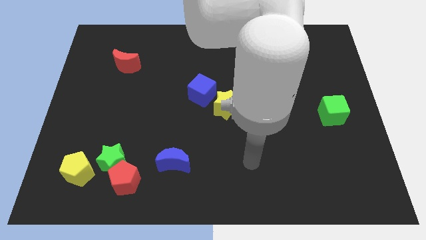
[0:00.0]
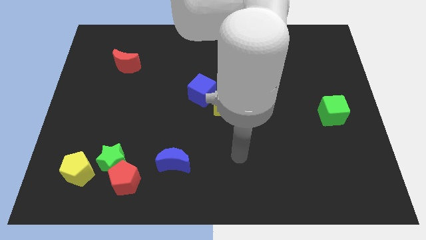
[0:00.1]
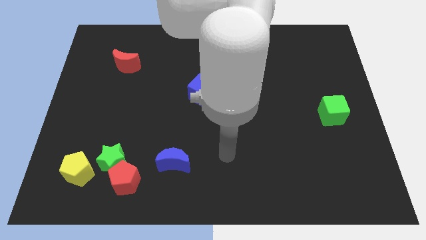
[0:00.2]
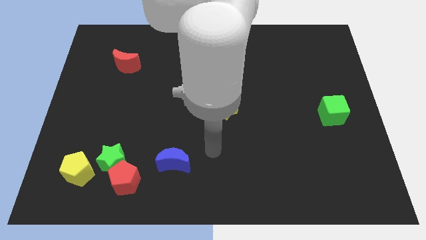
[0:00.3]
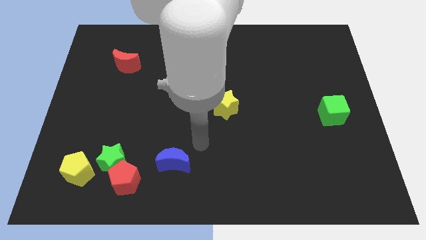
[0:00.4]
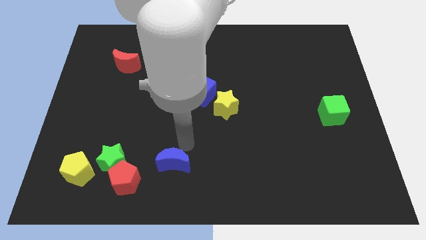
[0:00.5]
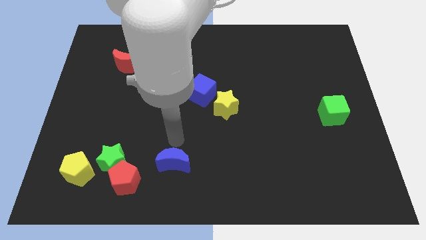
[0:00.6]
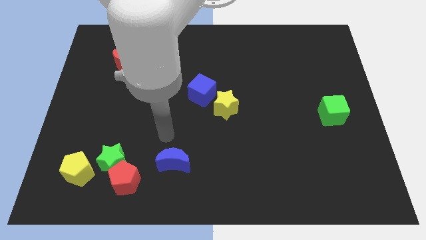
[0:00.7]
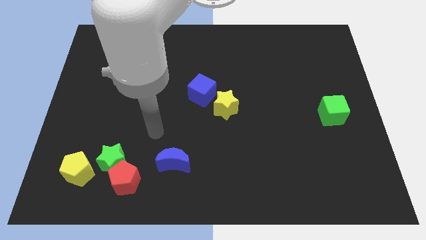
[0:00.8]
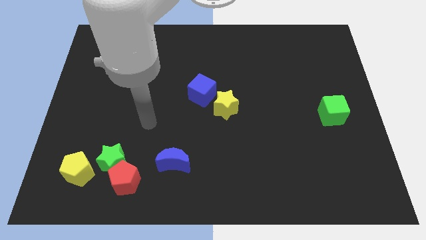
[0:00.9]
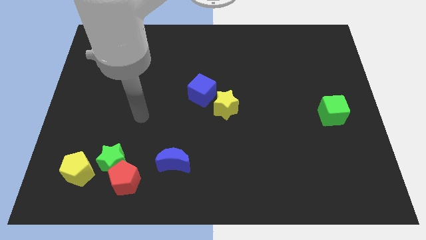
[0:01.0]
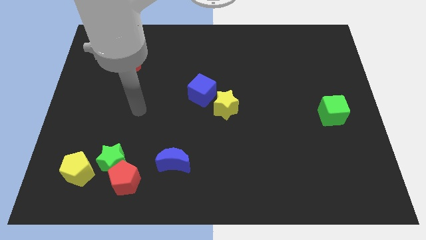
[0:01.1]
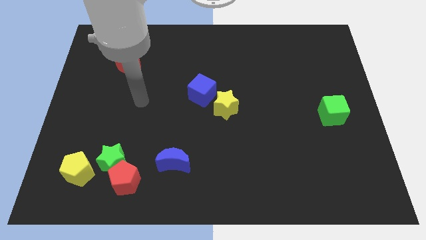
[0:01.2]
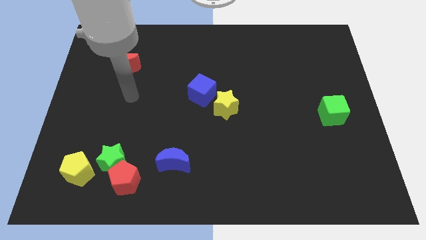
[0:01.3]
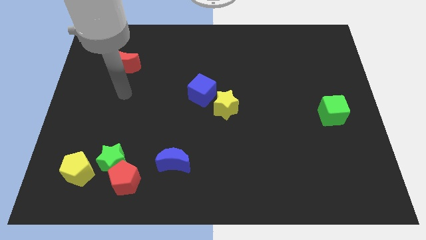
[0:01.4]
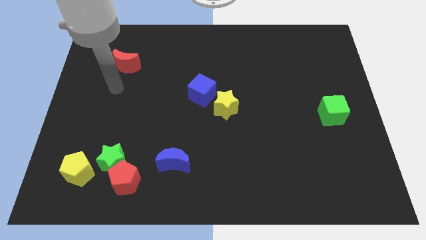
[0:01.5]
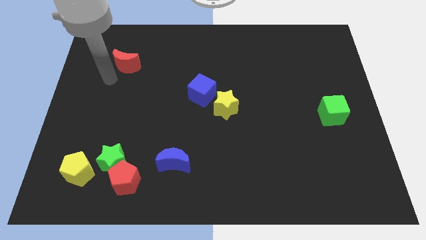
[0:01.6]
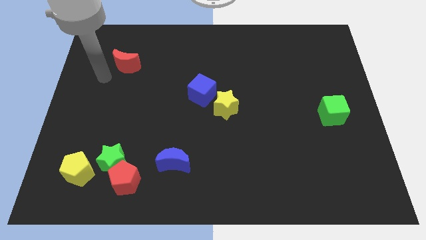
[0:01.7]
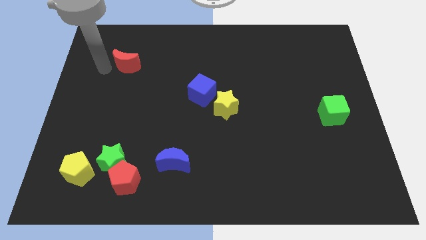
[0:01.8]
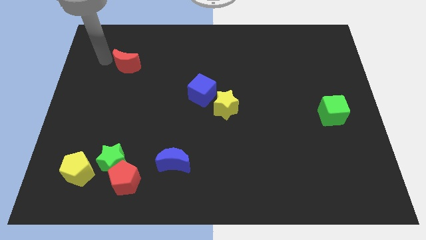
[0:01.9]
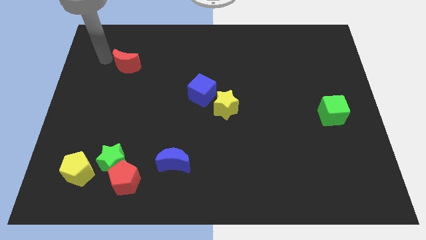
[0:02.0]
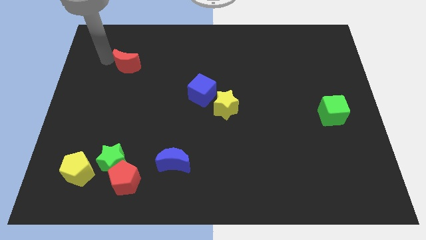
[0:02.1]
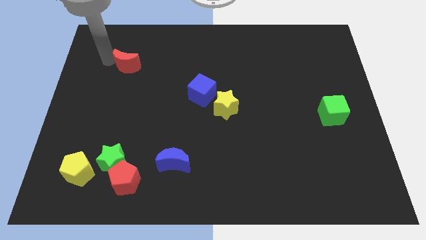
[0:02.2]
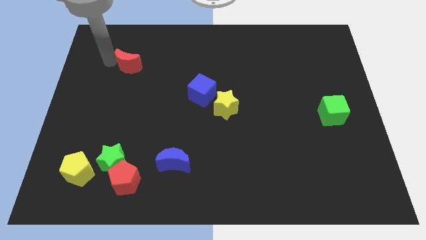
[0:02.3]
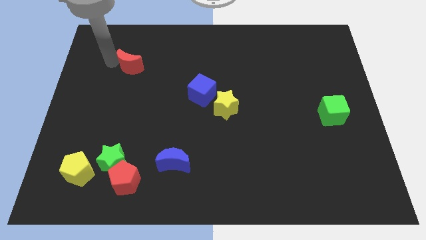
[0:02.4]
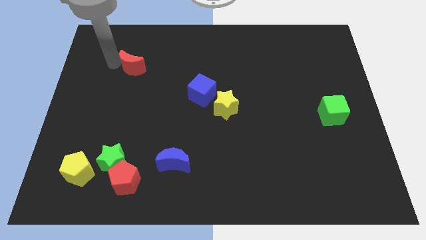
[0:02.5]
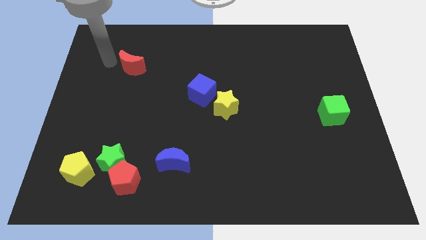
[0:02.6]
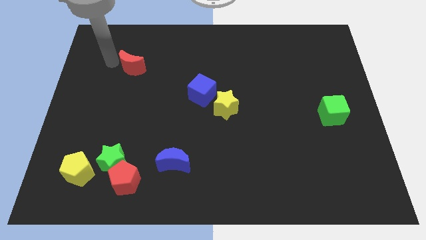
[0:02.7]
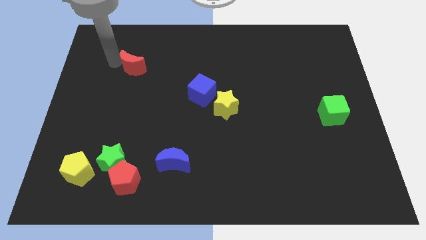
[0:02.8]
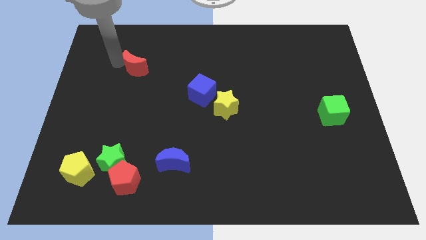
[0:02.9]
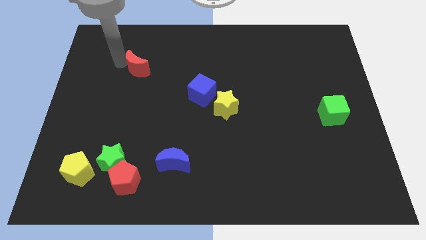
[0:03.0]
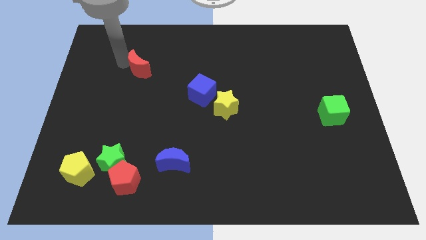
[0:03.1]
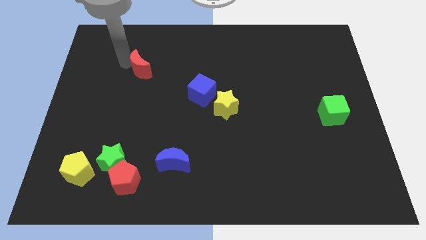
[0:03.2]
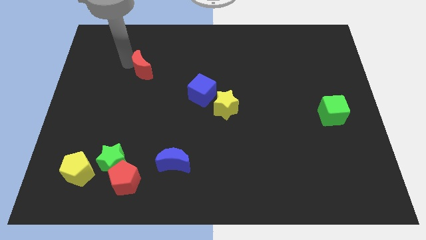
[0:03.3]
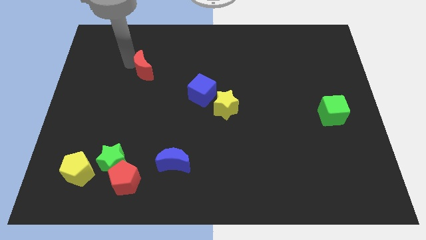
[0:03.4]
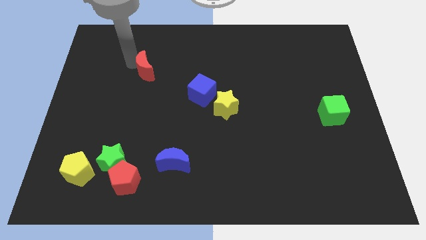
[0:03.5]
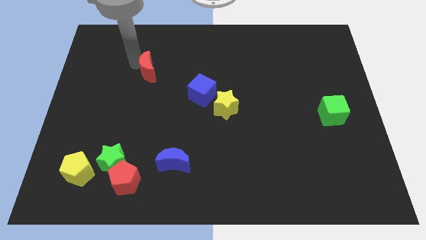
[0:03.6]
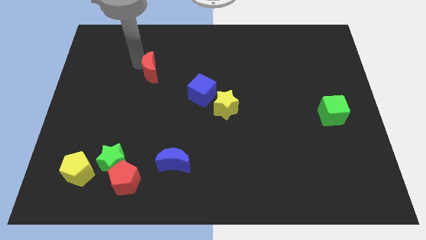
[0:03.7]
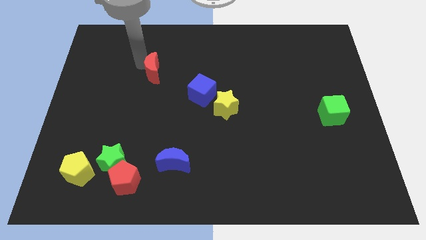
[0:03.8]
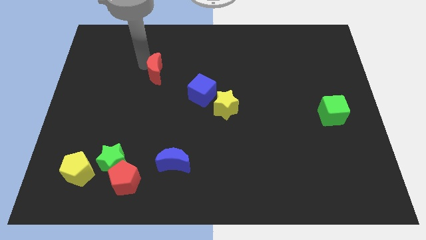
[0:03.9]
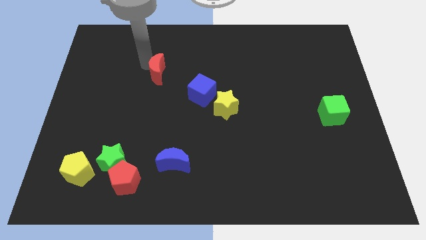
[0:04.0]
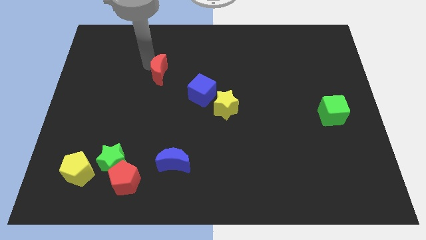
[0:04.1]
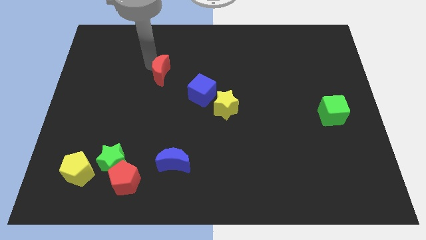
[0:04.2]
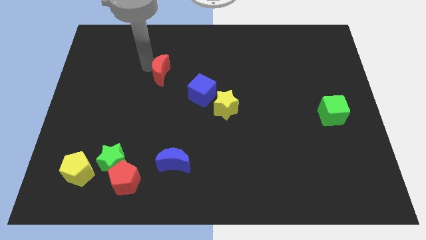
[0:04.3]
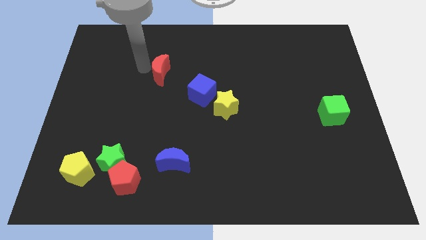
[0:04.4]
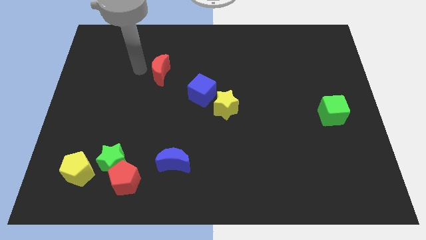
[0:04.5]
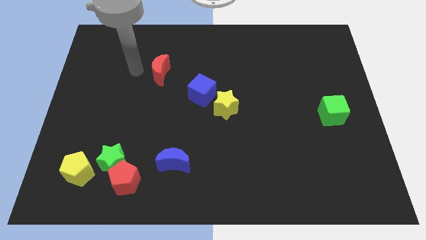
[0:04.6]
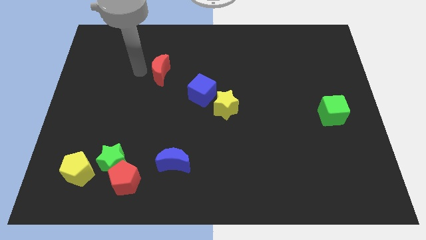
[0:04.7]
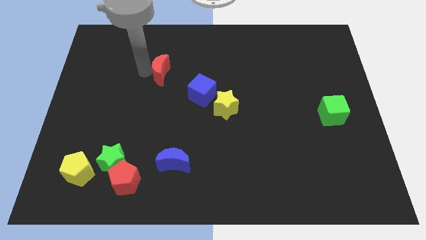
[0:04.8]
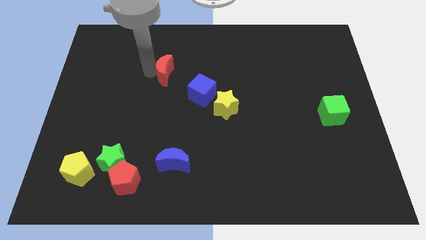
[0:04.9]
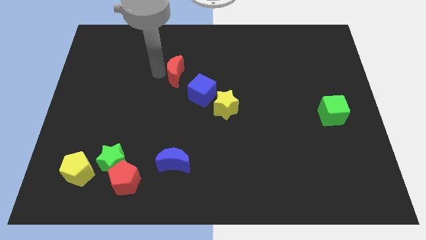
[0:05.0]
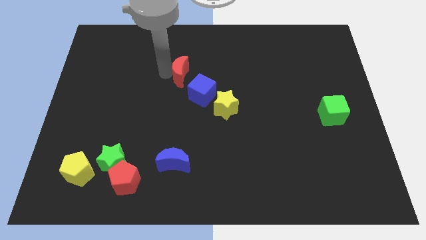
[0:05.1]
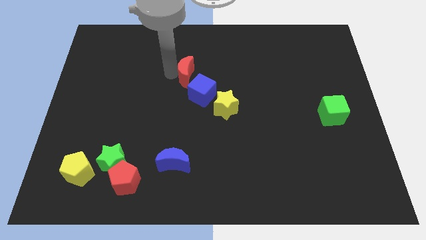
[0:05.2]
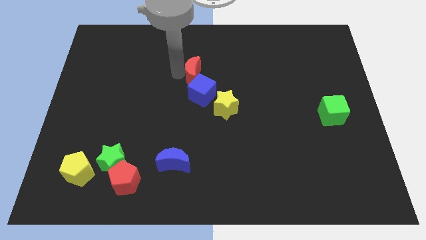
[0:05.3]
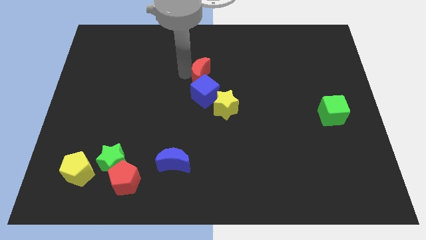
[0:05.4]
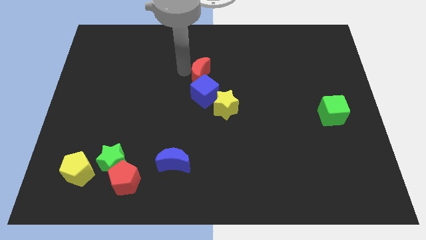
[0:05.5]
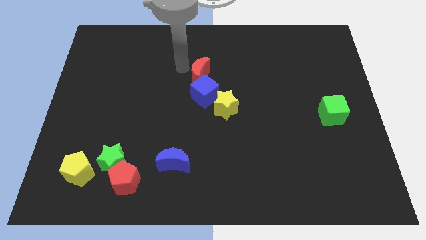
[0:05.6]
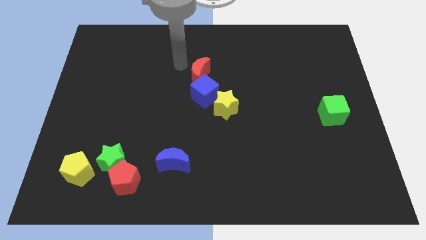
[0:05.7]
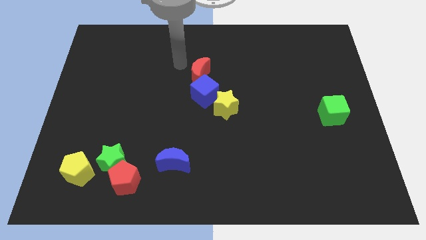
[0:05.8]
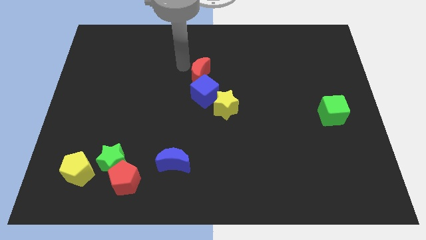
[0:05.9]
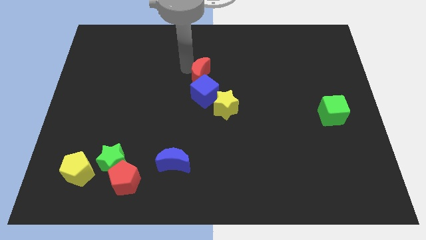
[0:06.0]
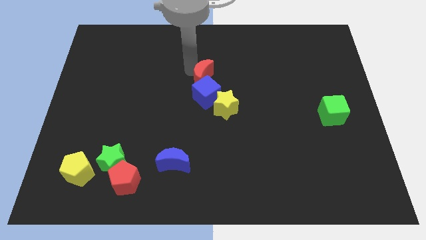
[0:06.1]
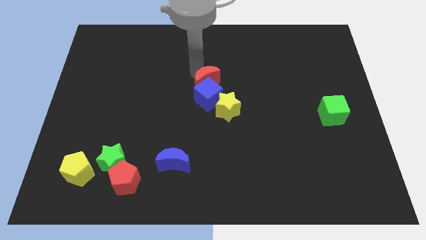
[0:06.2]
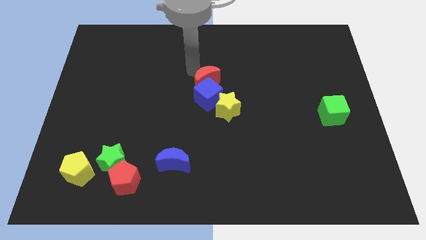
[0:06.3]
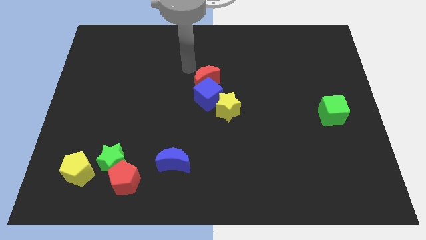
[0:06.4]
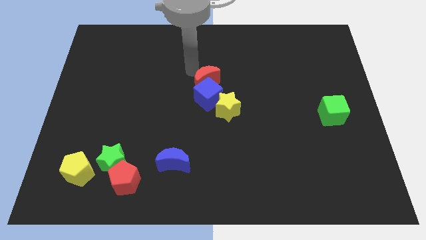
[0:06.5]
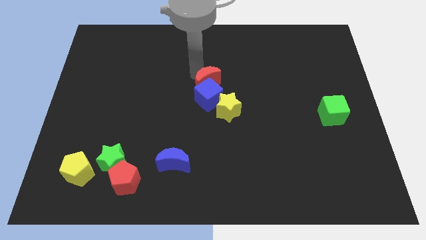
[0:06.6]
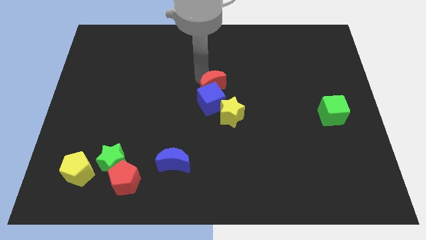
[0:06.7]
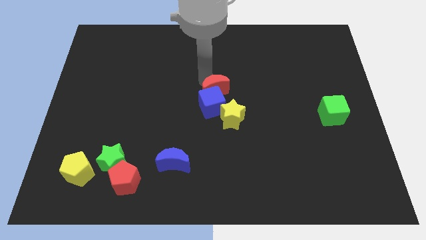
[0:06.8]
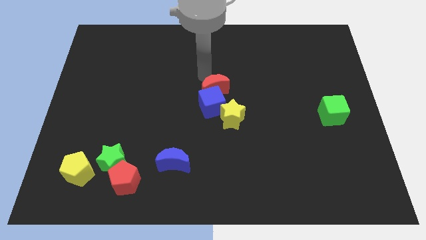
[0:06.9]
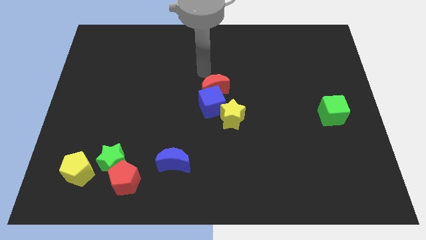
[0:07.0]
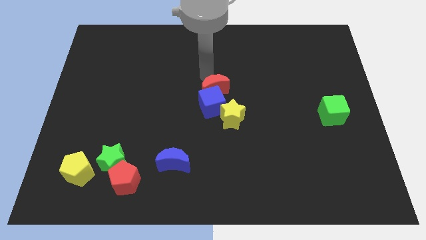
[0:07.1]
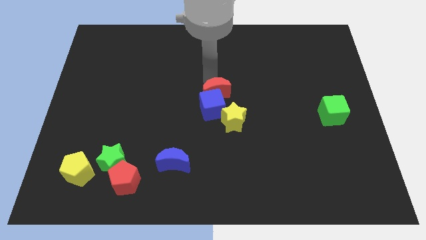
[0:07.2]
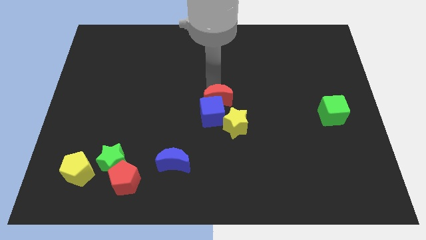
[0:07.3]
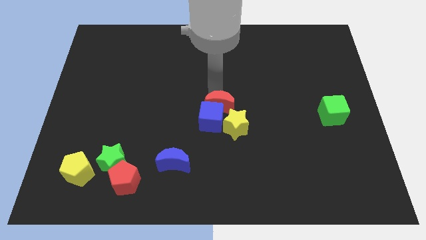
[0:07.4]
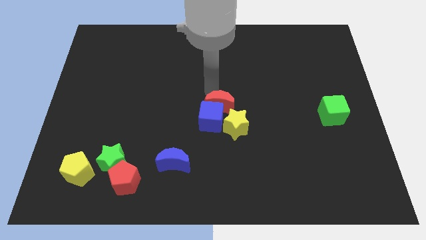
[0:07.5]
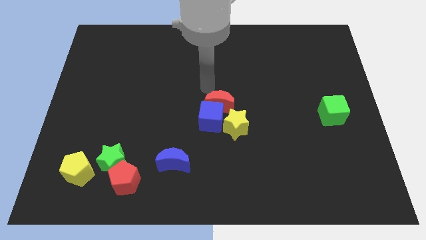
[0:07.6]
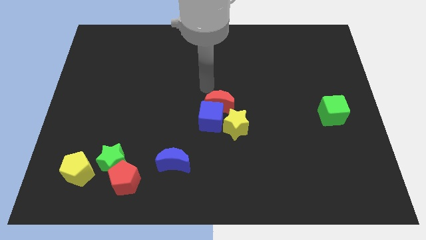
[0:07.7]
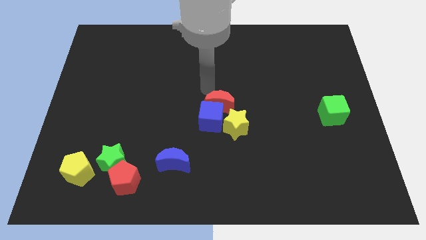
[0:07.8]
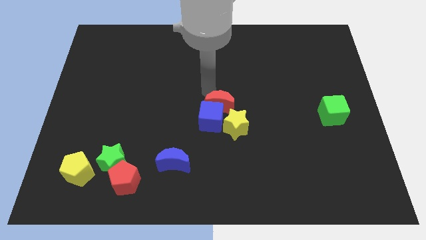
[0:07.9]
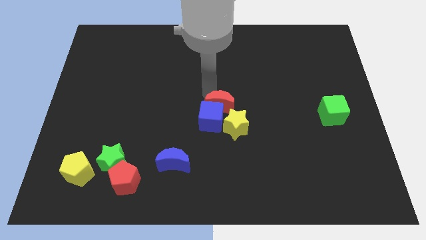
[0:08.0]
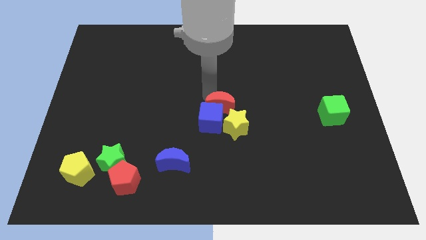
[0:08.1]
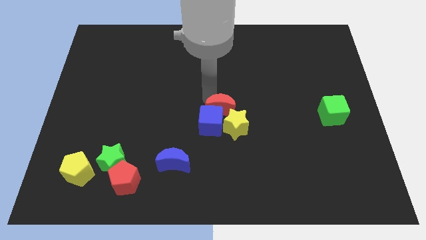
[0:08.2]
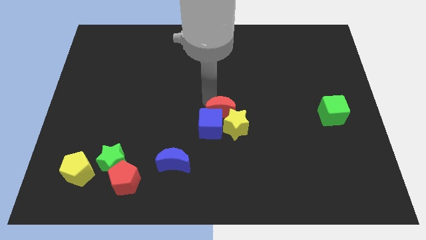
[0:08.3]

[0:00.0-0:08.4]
slide the red moon to the yellow star
